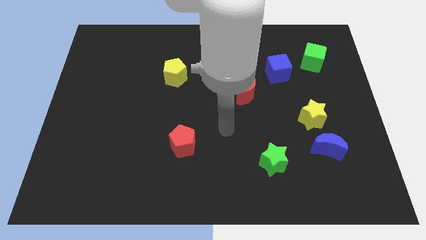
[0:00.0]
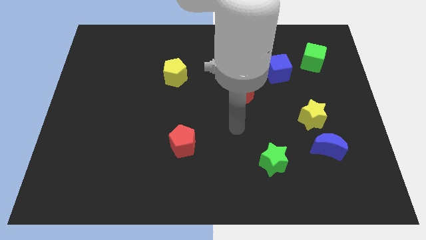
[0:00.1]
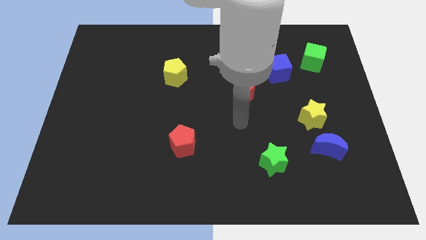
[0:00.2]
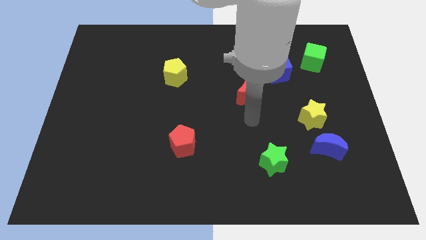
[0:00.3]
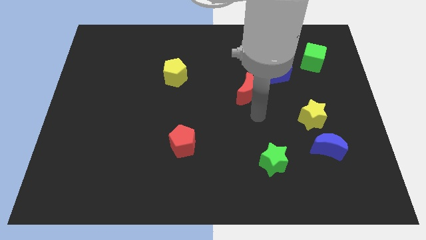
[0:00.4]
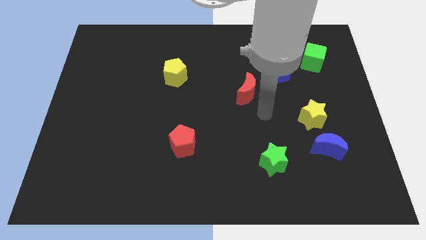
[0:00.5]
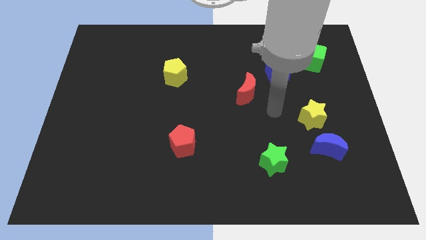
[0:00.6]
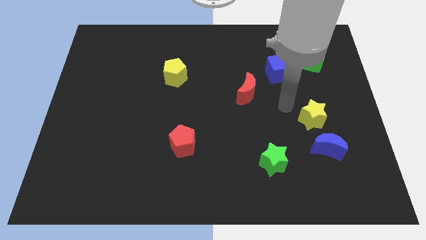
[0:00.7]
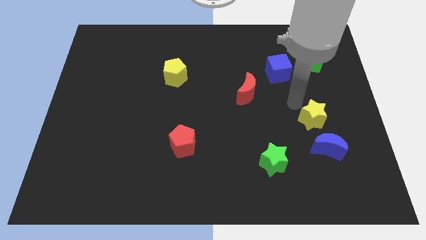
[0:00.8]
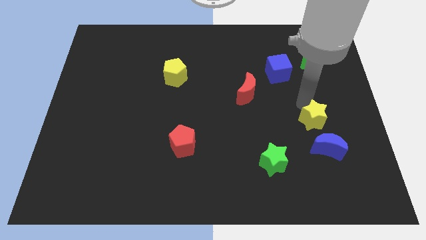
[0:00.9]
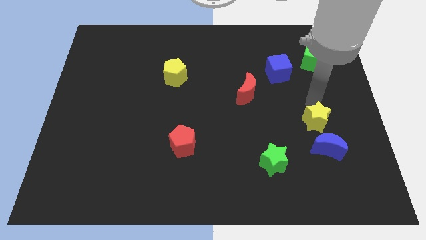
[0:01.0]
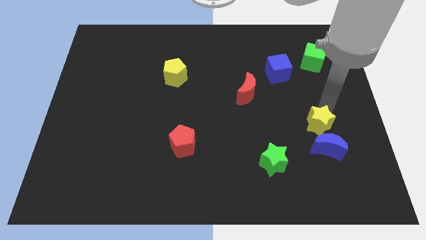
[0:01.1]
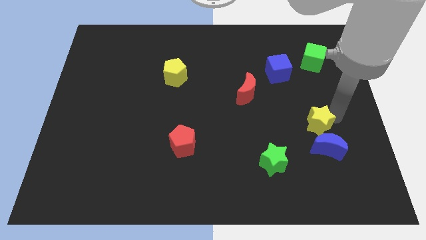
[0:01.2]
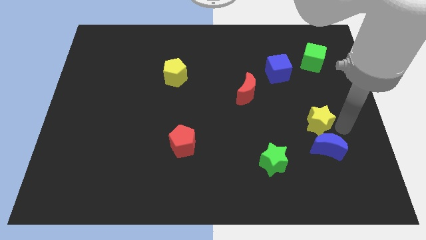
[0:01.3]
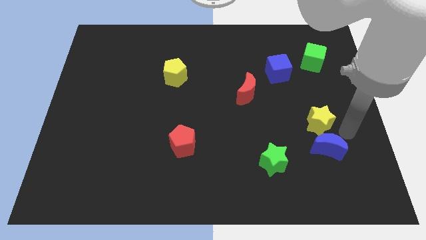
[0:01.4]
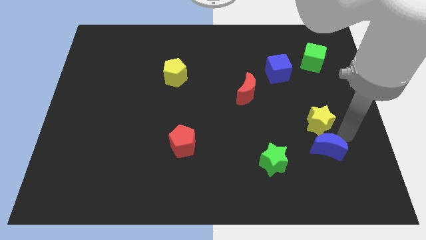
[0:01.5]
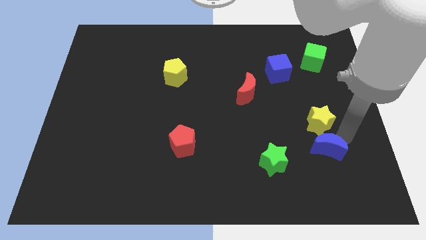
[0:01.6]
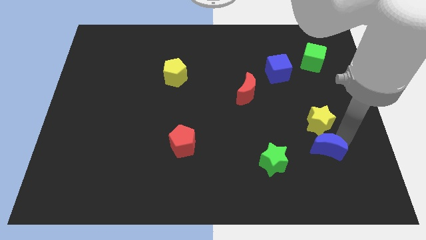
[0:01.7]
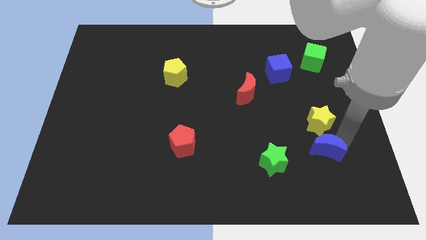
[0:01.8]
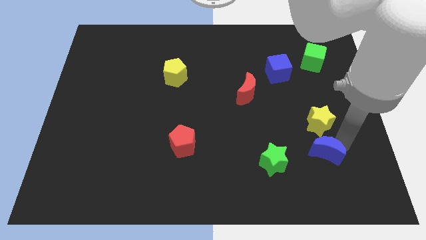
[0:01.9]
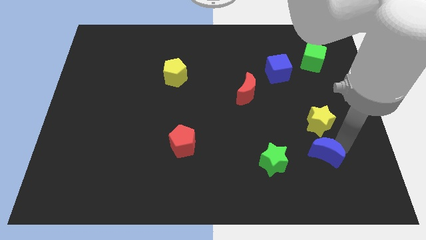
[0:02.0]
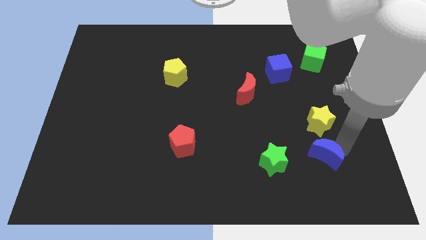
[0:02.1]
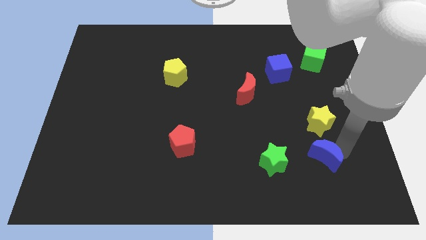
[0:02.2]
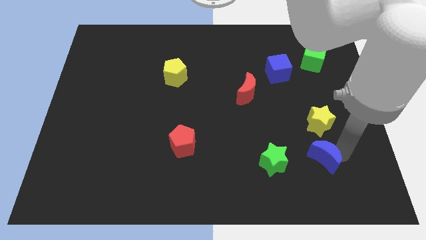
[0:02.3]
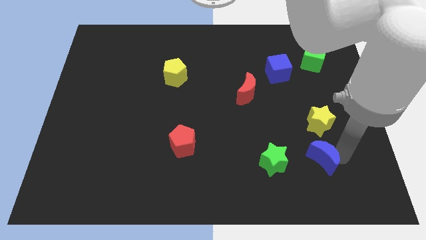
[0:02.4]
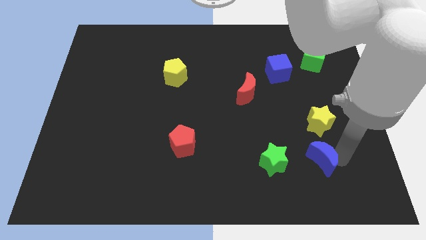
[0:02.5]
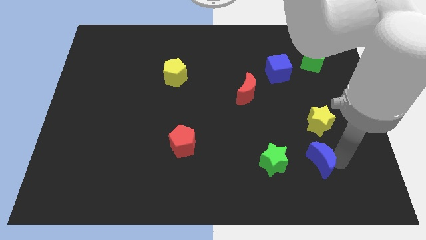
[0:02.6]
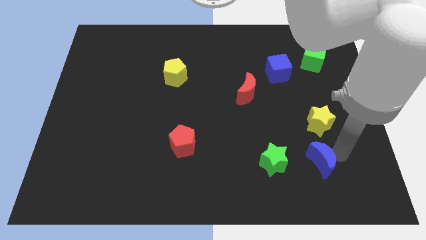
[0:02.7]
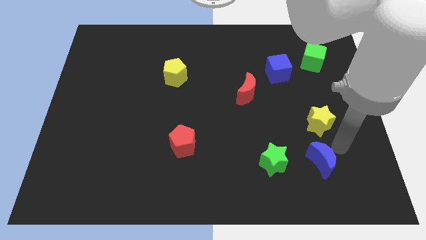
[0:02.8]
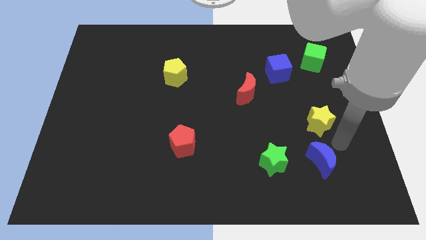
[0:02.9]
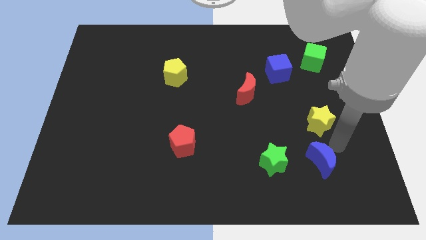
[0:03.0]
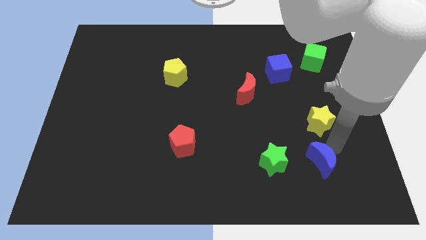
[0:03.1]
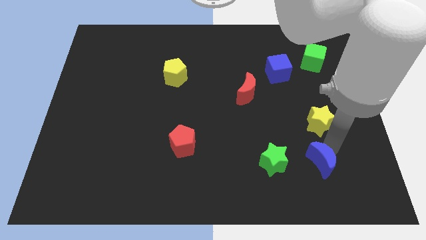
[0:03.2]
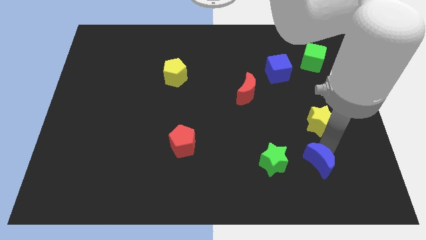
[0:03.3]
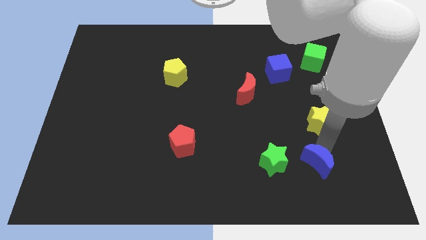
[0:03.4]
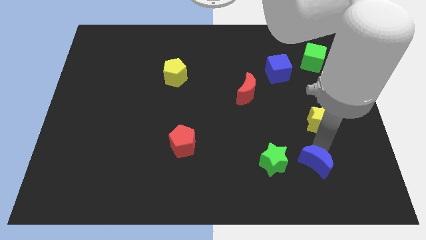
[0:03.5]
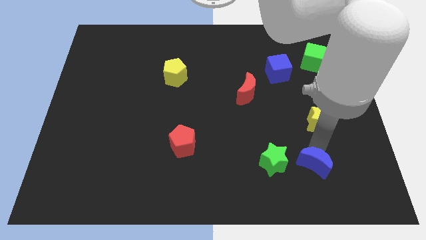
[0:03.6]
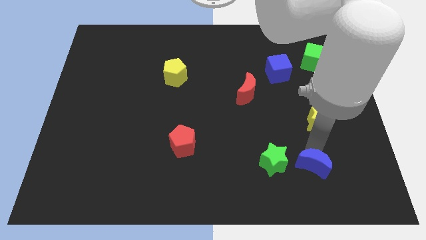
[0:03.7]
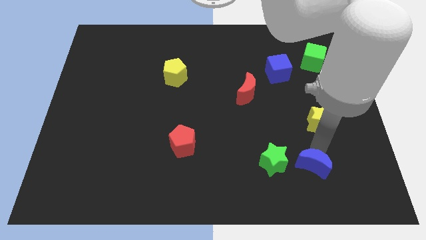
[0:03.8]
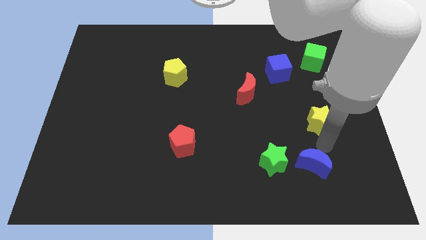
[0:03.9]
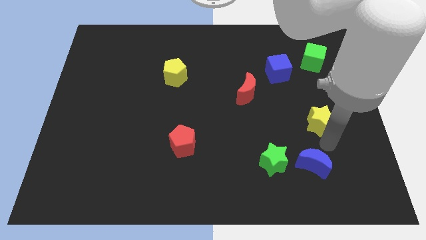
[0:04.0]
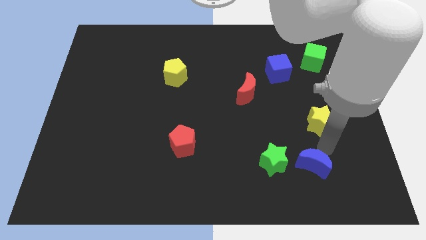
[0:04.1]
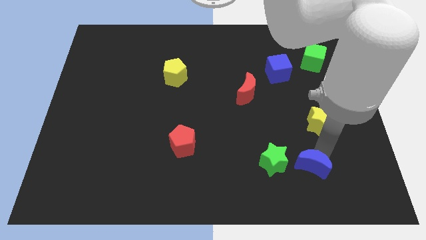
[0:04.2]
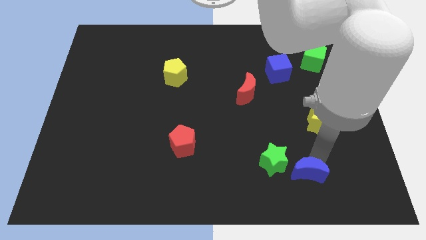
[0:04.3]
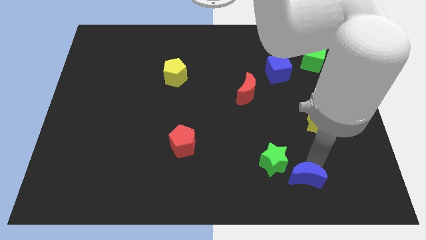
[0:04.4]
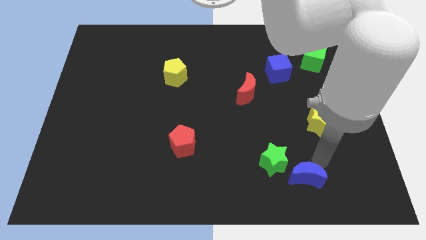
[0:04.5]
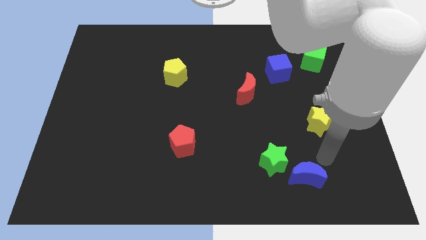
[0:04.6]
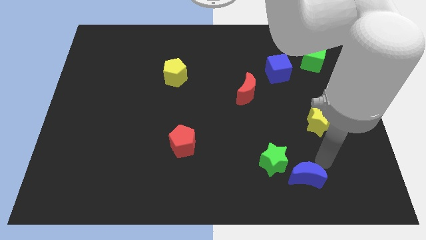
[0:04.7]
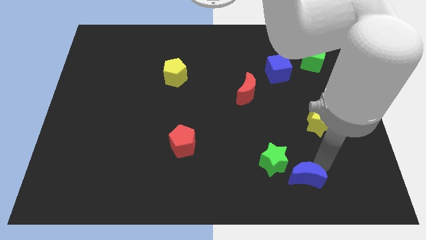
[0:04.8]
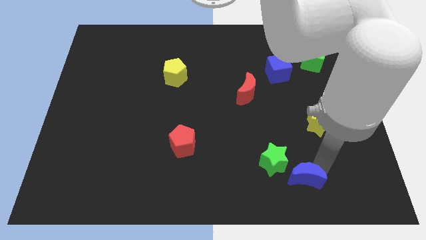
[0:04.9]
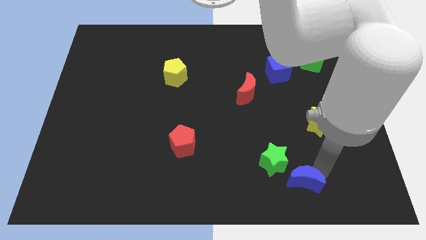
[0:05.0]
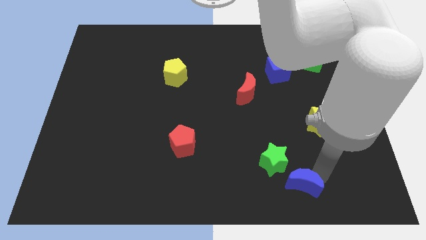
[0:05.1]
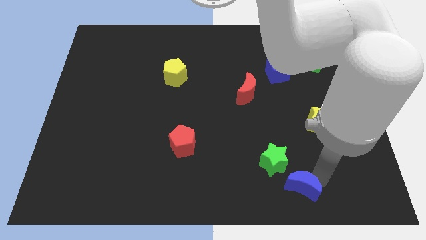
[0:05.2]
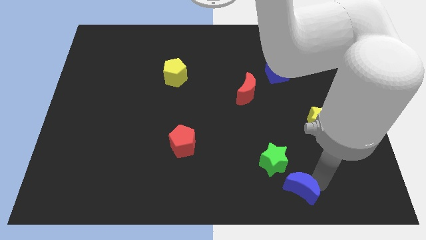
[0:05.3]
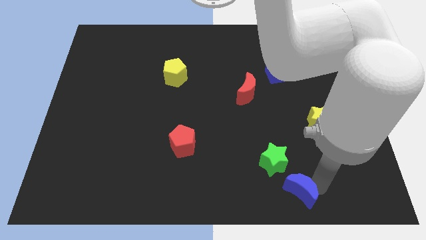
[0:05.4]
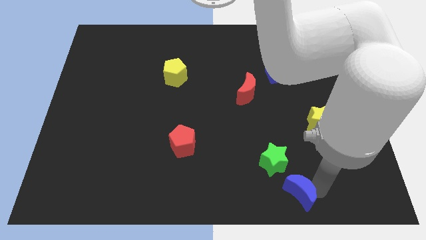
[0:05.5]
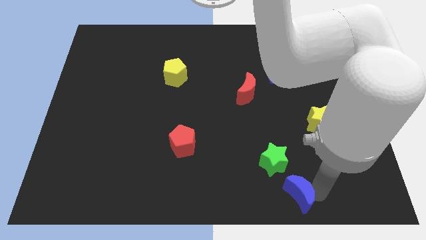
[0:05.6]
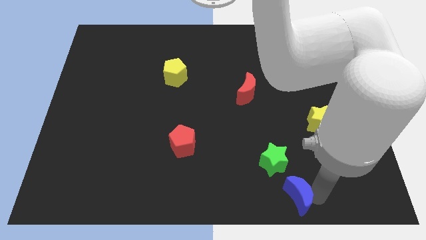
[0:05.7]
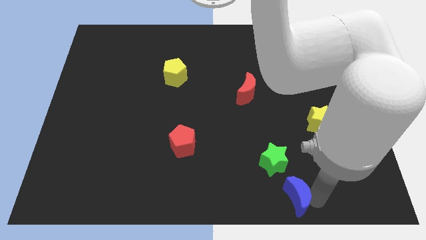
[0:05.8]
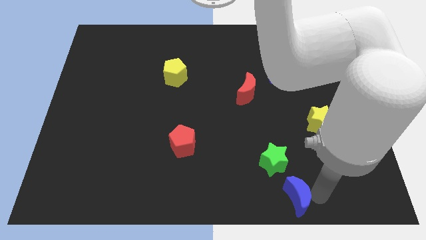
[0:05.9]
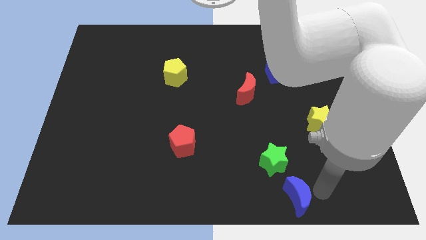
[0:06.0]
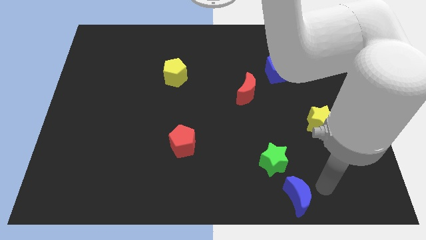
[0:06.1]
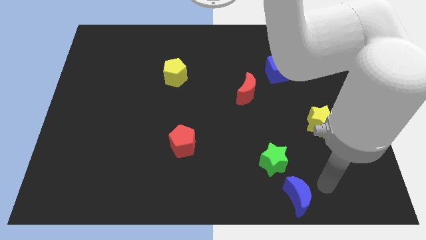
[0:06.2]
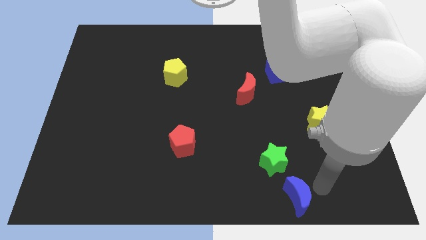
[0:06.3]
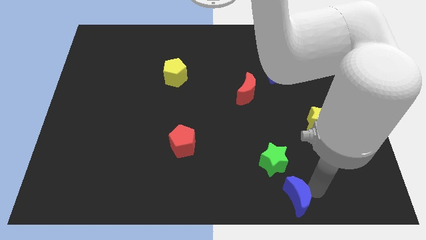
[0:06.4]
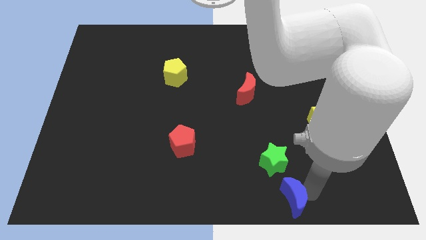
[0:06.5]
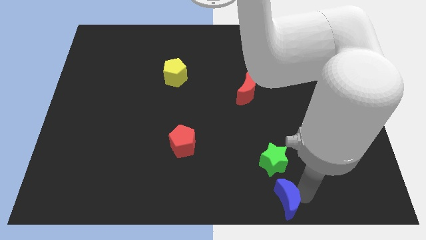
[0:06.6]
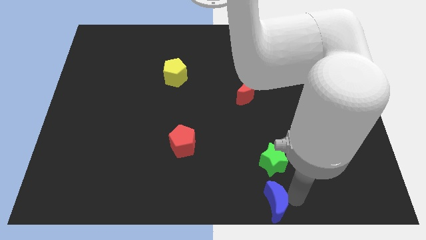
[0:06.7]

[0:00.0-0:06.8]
slide the blue moon to the bottom
